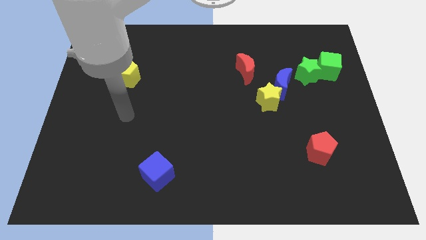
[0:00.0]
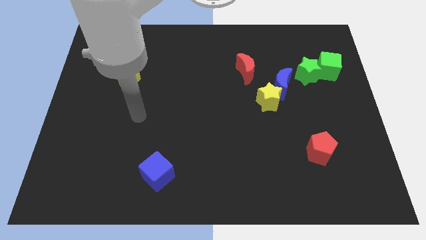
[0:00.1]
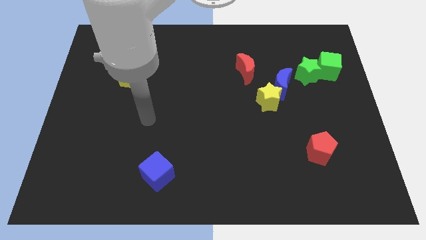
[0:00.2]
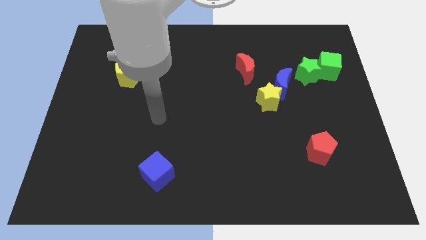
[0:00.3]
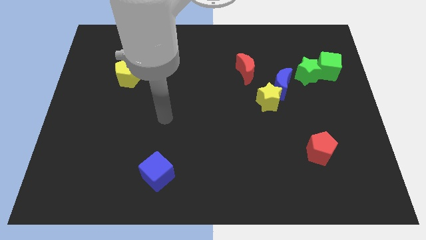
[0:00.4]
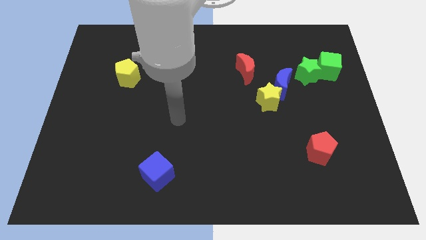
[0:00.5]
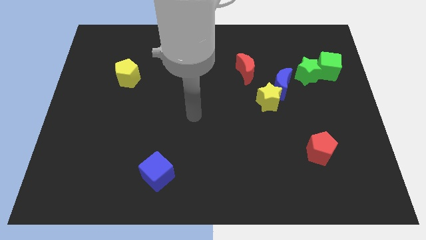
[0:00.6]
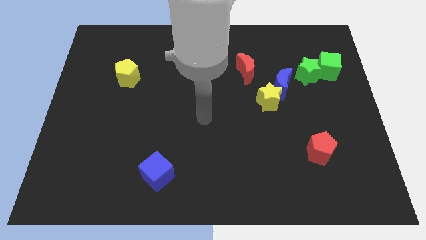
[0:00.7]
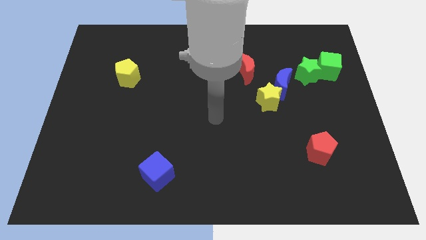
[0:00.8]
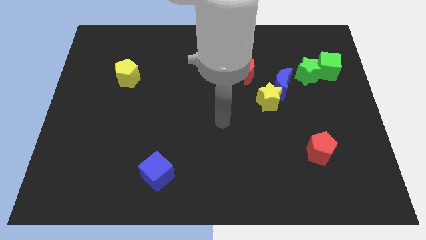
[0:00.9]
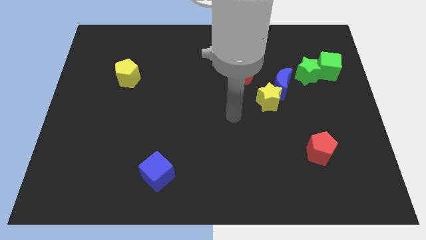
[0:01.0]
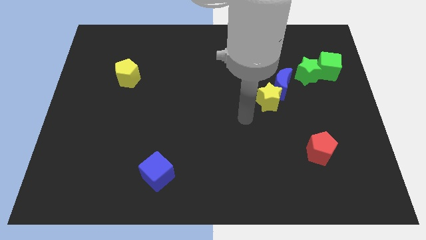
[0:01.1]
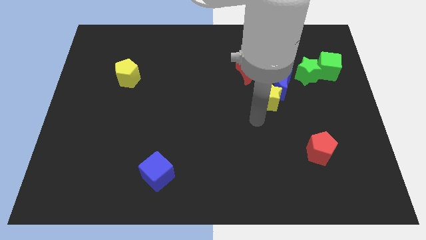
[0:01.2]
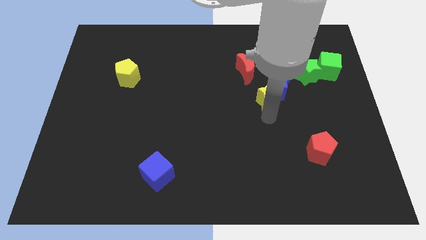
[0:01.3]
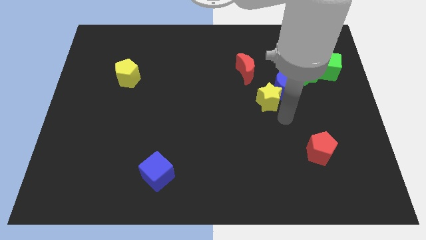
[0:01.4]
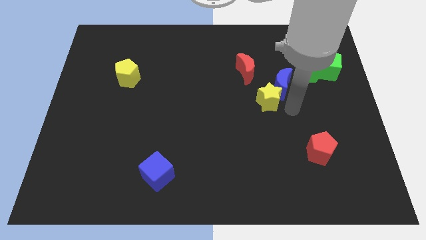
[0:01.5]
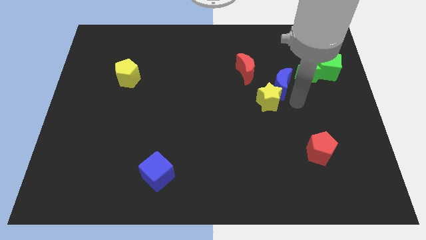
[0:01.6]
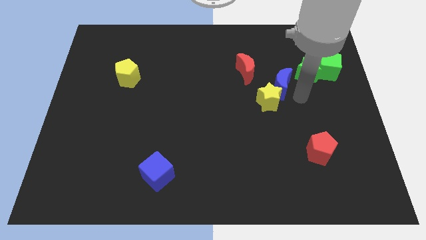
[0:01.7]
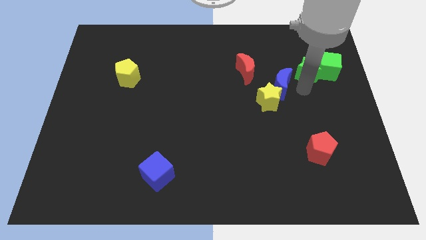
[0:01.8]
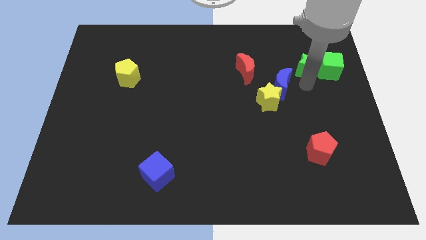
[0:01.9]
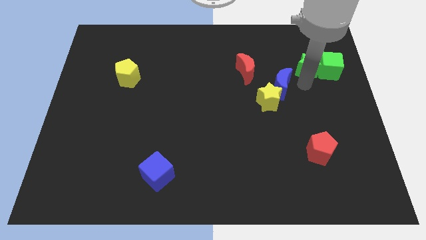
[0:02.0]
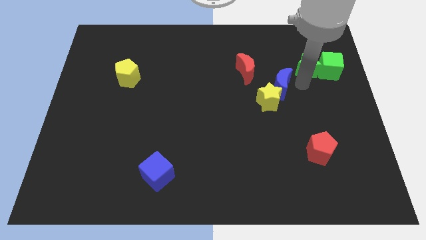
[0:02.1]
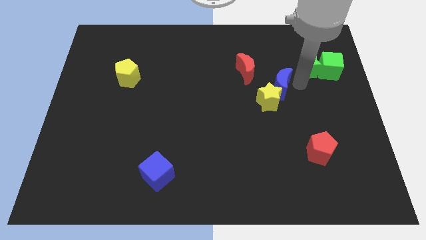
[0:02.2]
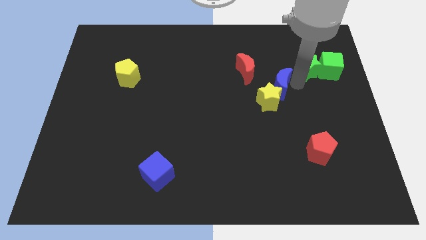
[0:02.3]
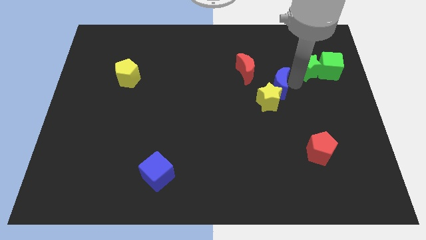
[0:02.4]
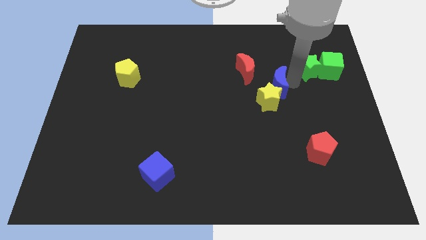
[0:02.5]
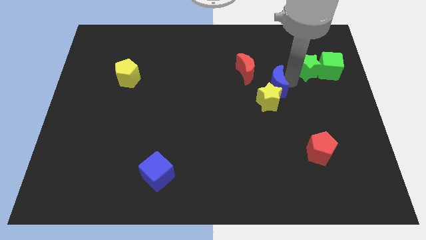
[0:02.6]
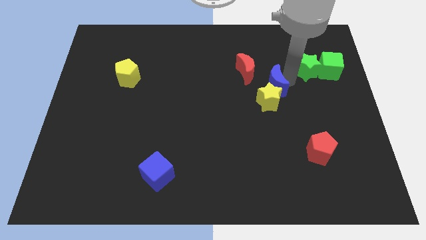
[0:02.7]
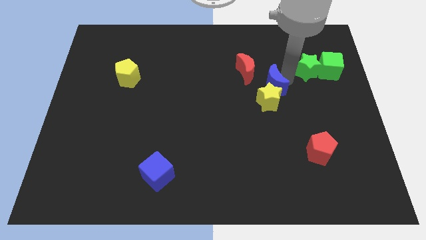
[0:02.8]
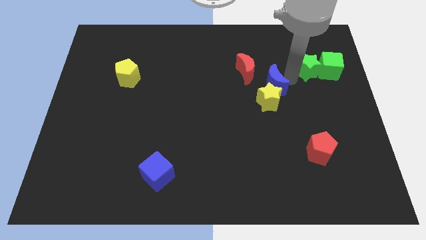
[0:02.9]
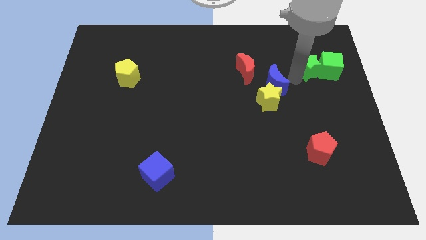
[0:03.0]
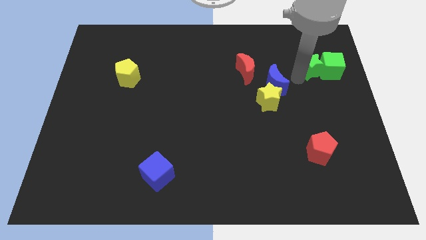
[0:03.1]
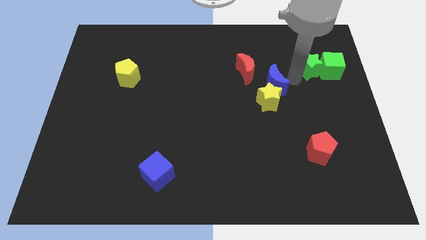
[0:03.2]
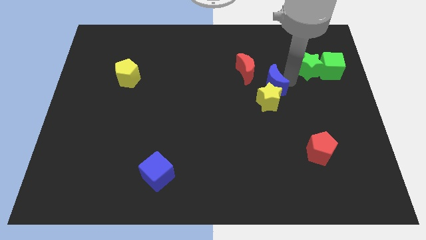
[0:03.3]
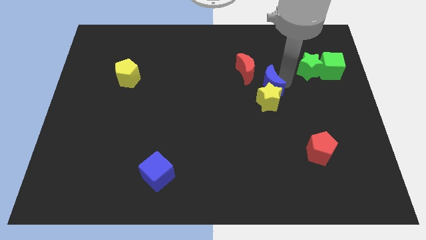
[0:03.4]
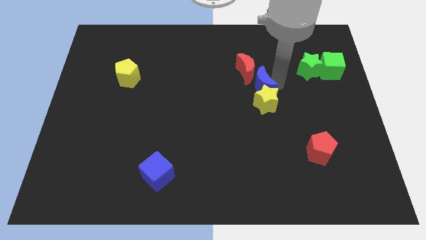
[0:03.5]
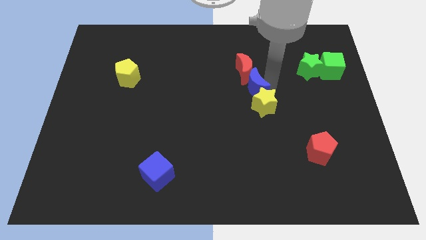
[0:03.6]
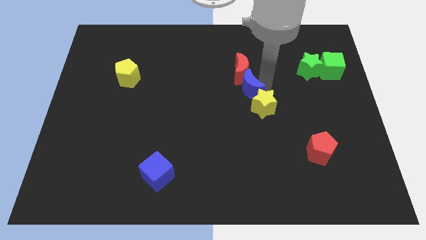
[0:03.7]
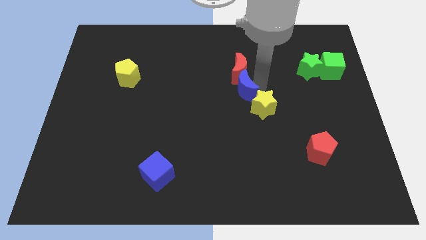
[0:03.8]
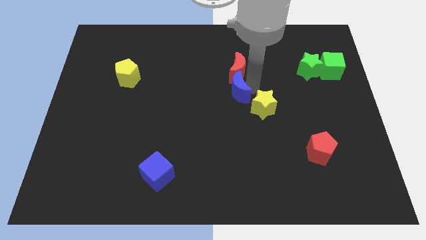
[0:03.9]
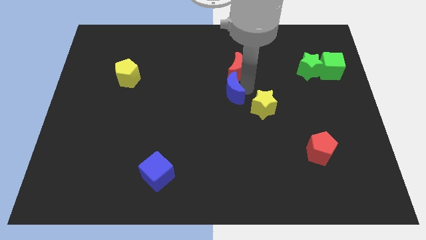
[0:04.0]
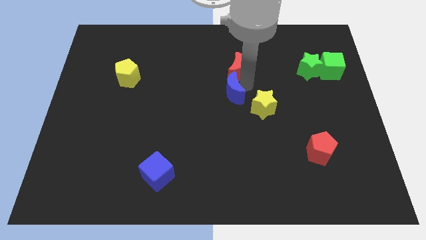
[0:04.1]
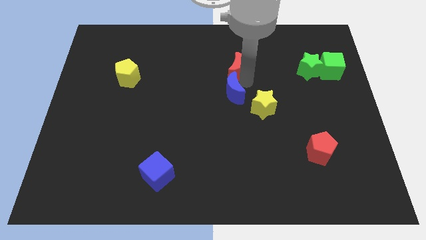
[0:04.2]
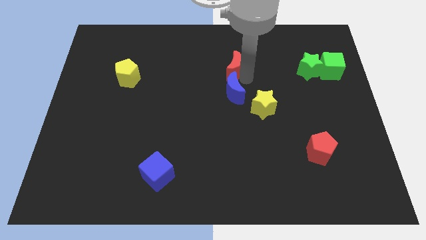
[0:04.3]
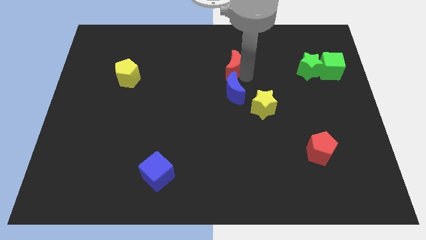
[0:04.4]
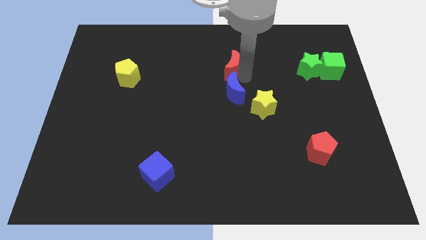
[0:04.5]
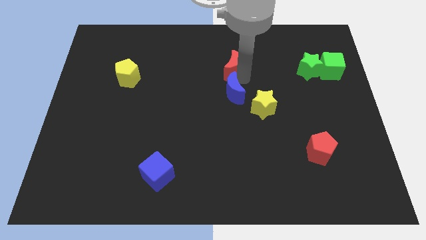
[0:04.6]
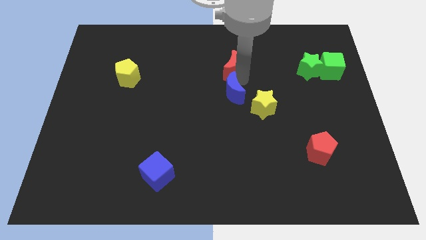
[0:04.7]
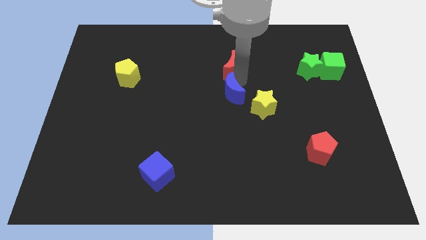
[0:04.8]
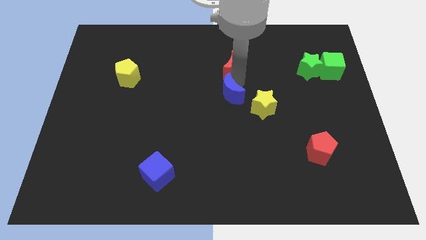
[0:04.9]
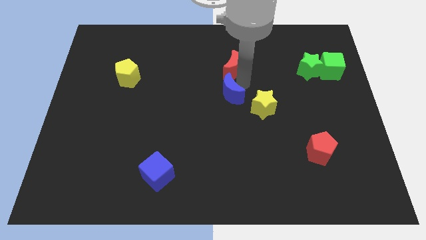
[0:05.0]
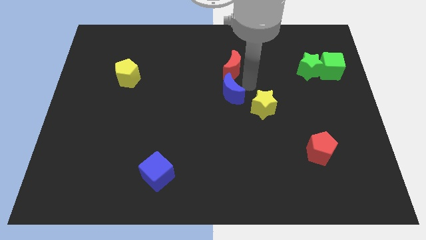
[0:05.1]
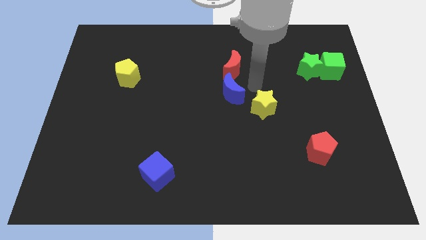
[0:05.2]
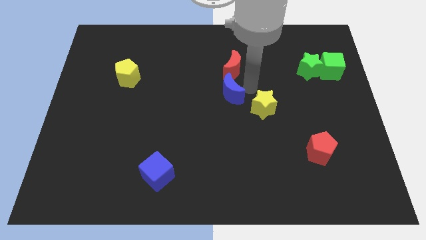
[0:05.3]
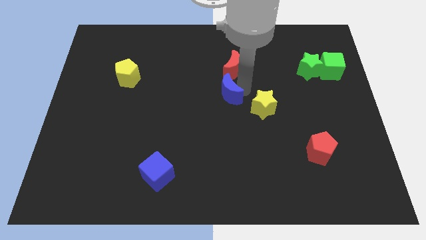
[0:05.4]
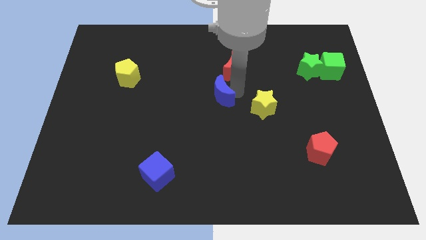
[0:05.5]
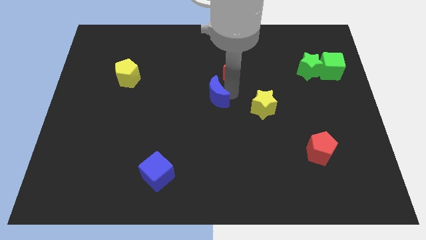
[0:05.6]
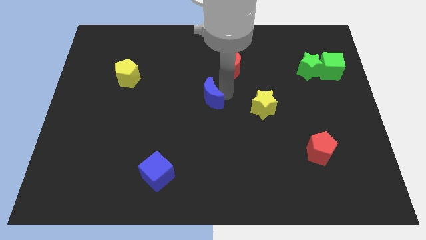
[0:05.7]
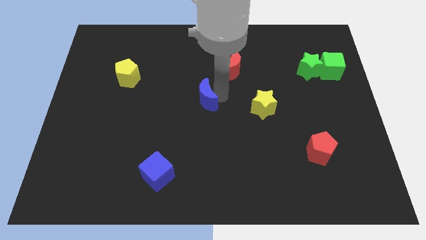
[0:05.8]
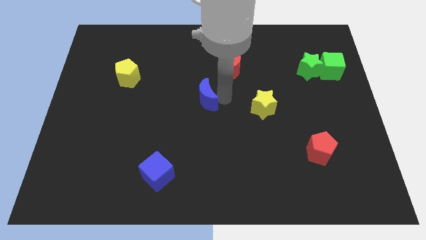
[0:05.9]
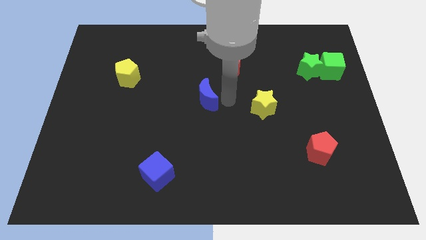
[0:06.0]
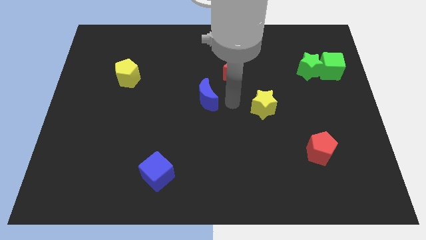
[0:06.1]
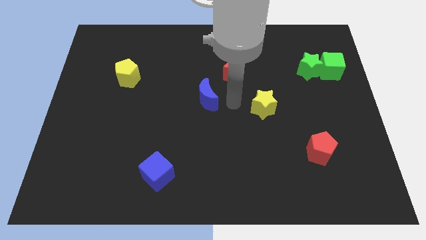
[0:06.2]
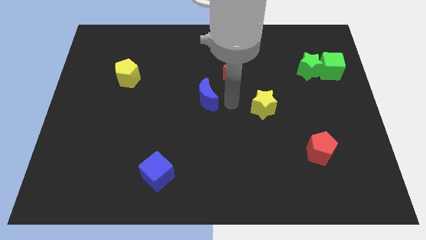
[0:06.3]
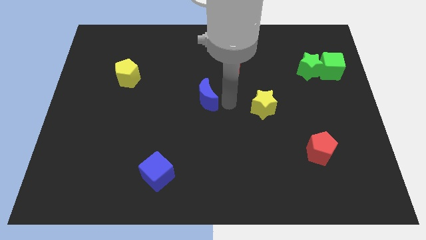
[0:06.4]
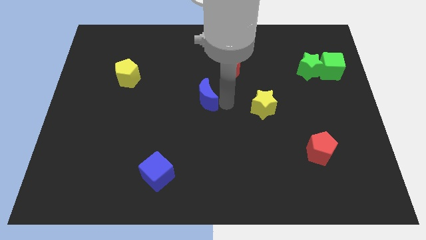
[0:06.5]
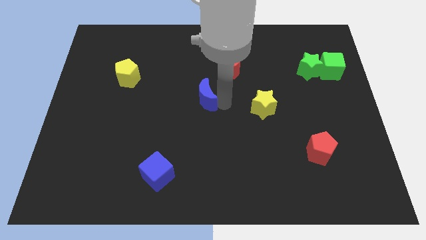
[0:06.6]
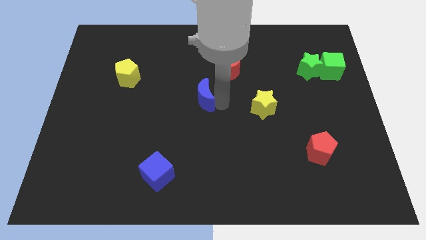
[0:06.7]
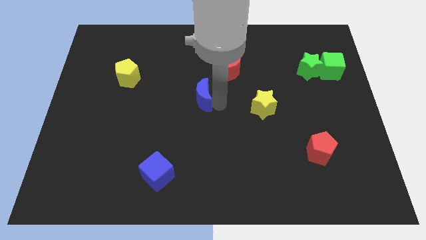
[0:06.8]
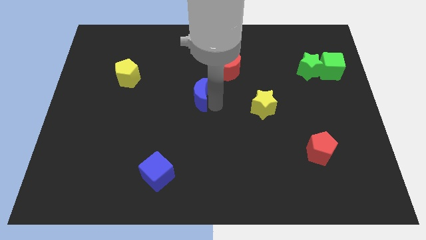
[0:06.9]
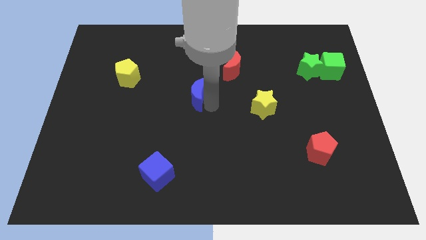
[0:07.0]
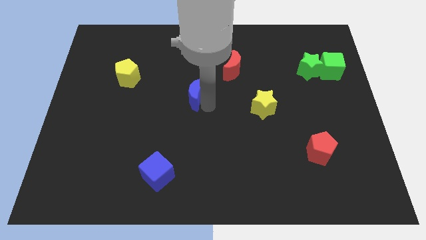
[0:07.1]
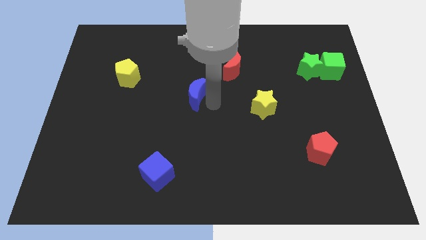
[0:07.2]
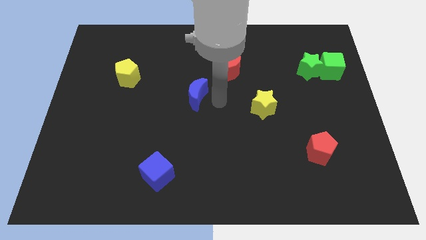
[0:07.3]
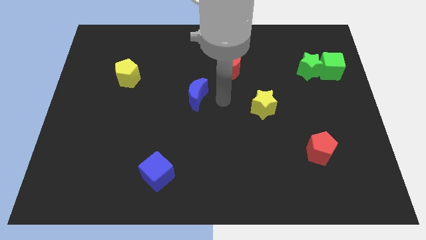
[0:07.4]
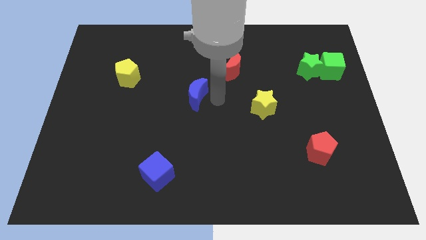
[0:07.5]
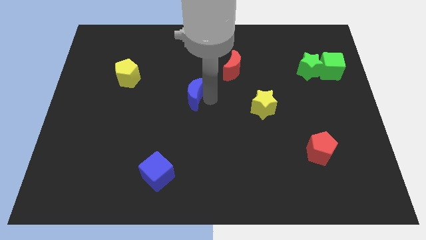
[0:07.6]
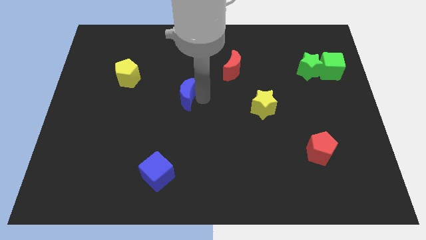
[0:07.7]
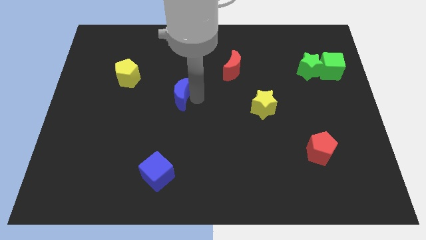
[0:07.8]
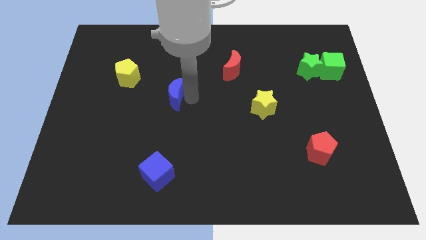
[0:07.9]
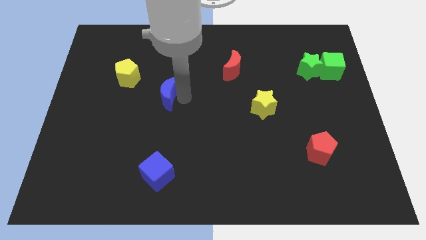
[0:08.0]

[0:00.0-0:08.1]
put the blue moon to the bottom right of the yellow pentagon
